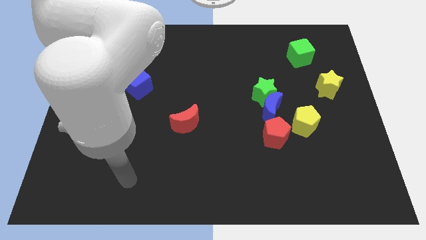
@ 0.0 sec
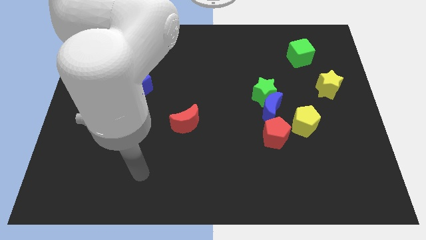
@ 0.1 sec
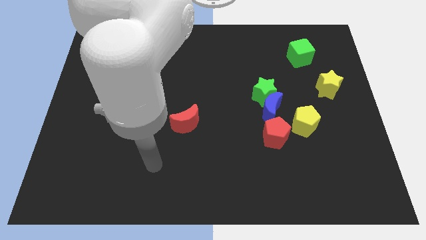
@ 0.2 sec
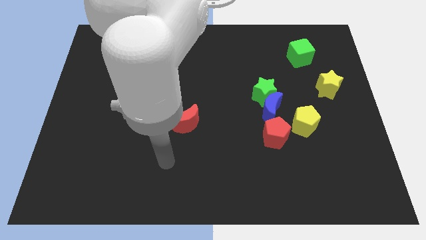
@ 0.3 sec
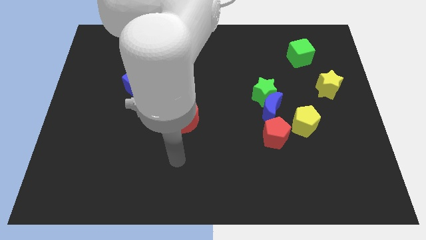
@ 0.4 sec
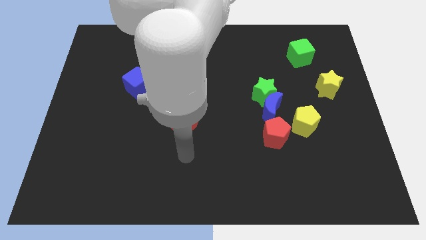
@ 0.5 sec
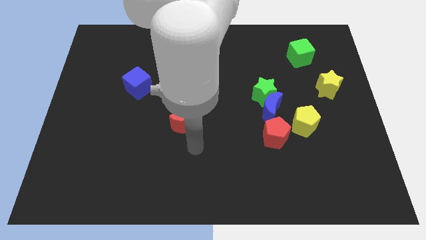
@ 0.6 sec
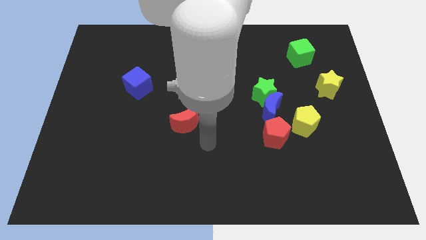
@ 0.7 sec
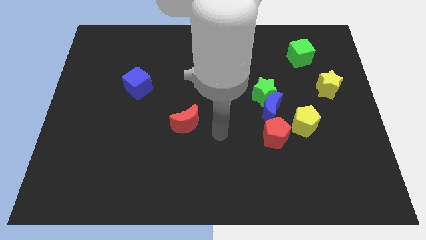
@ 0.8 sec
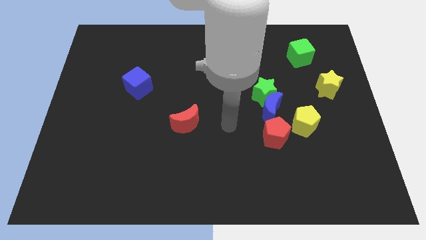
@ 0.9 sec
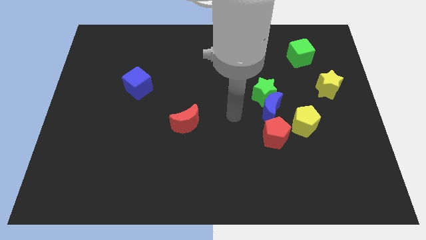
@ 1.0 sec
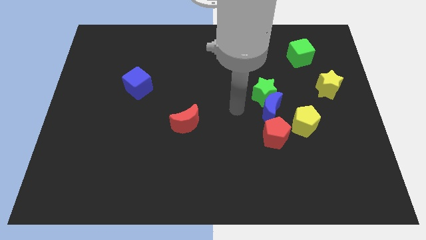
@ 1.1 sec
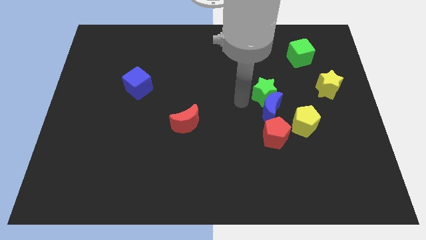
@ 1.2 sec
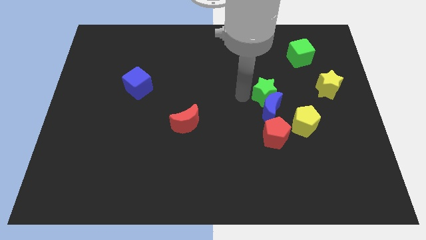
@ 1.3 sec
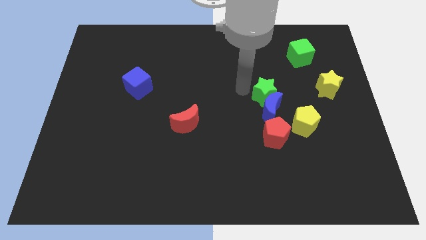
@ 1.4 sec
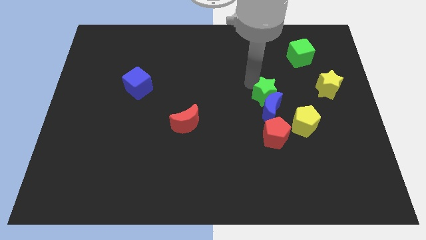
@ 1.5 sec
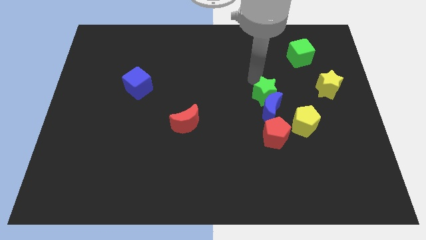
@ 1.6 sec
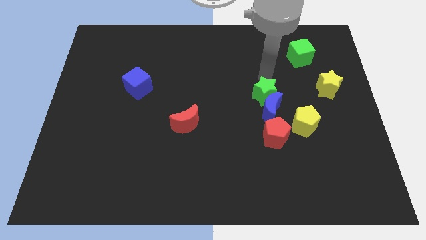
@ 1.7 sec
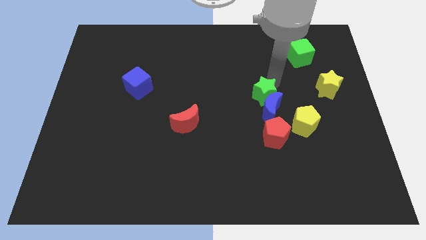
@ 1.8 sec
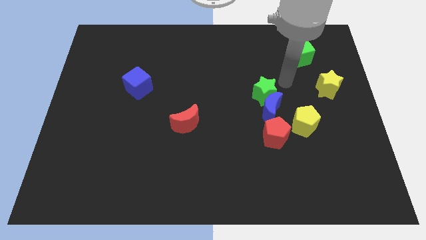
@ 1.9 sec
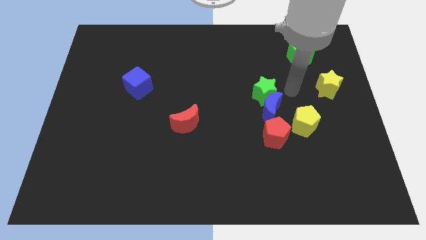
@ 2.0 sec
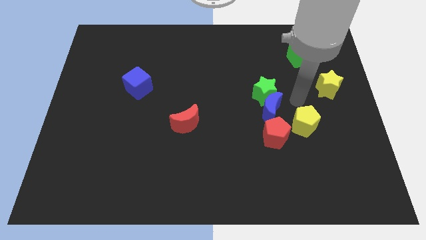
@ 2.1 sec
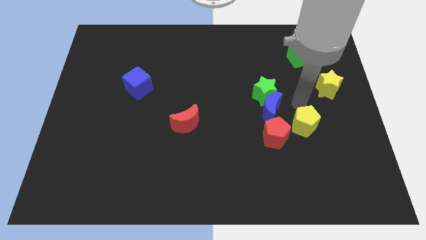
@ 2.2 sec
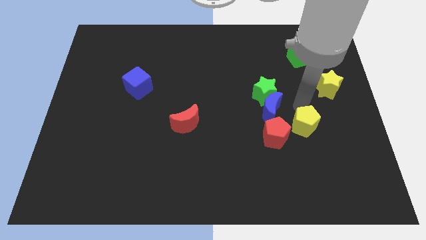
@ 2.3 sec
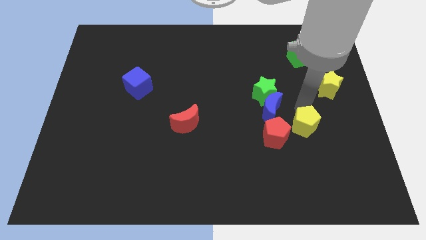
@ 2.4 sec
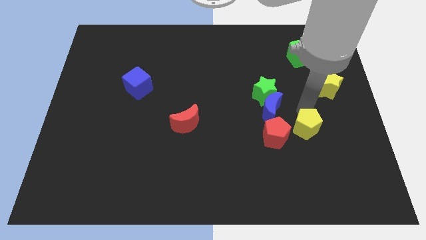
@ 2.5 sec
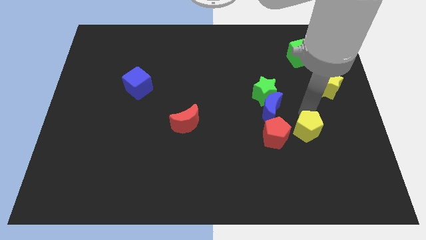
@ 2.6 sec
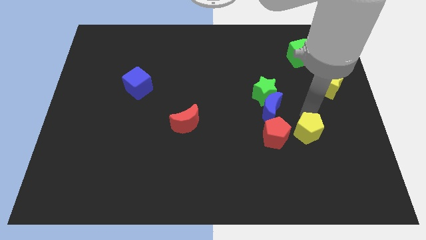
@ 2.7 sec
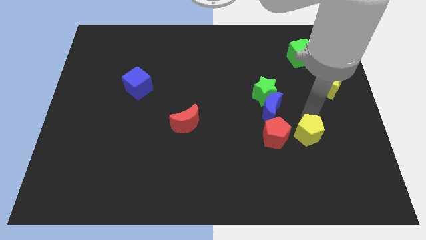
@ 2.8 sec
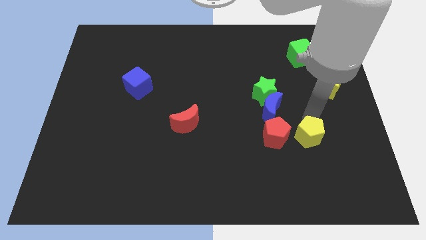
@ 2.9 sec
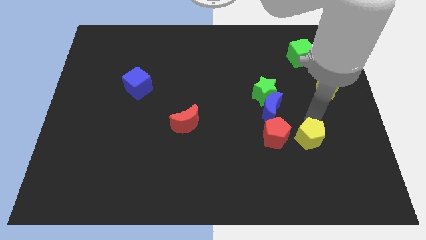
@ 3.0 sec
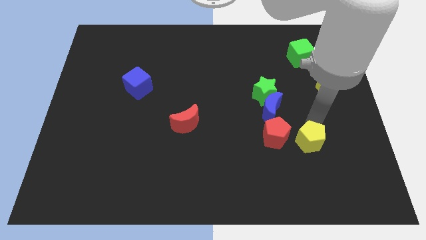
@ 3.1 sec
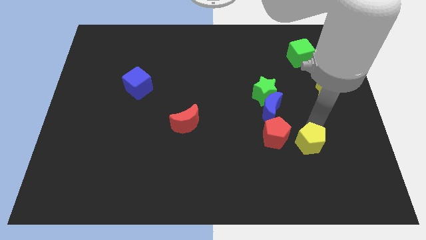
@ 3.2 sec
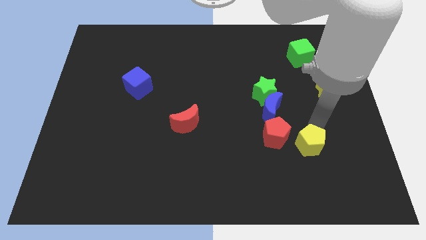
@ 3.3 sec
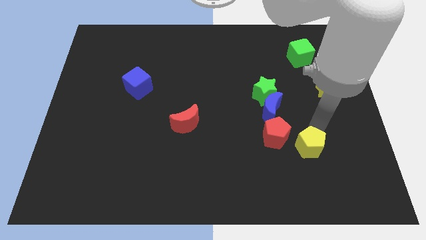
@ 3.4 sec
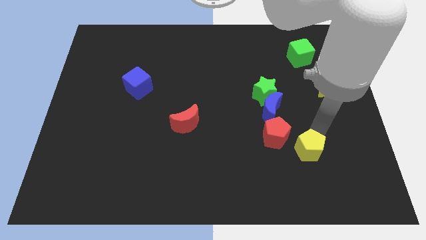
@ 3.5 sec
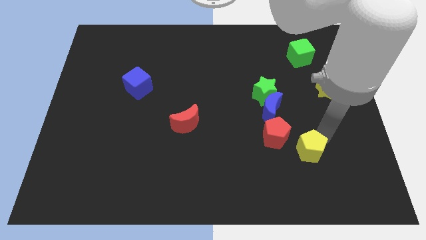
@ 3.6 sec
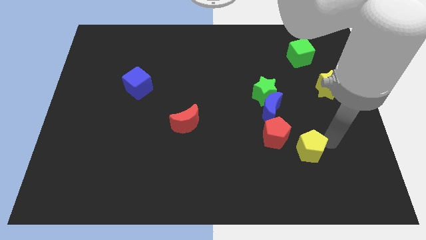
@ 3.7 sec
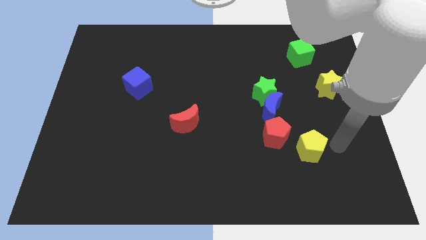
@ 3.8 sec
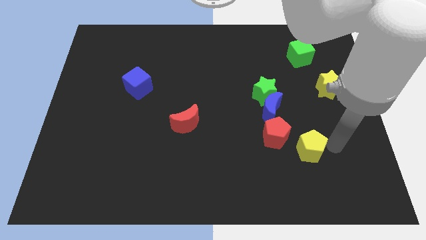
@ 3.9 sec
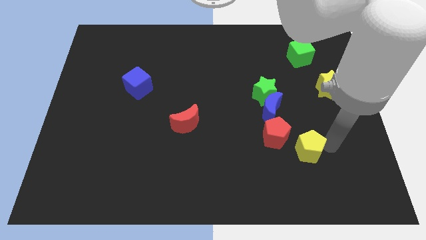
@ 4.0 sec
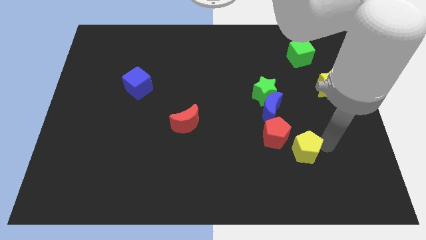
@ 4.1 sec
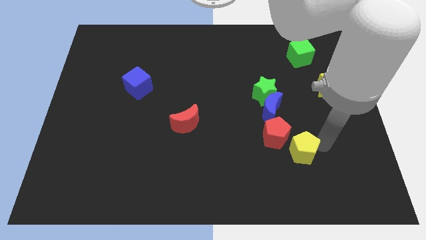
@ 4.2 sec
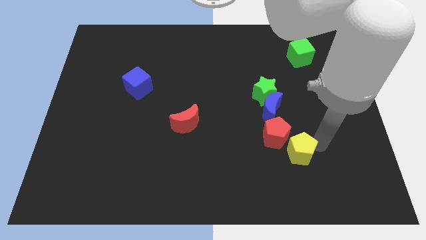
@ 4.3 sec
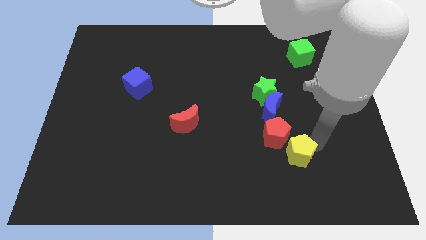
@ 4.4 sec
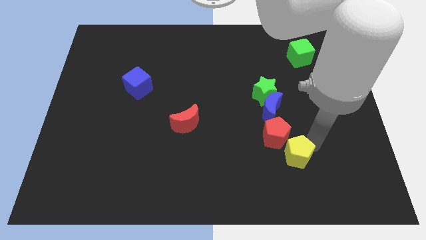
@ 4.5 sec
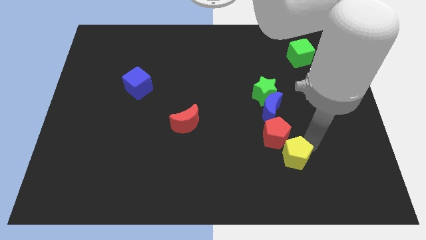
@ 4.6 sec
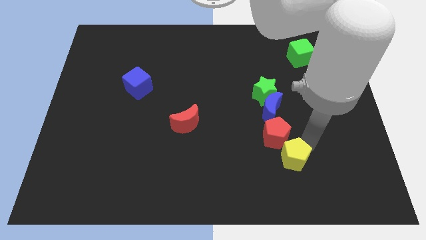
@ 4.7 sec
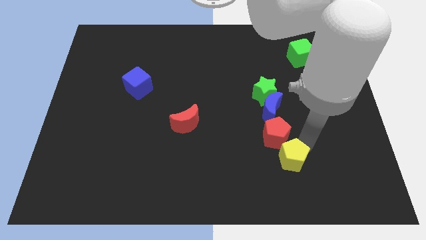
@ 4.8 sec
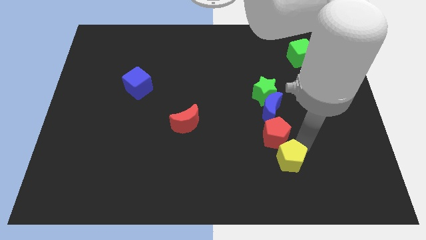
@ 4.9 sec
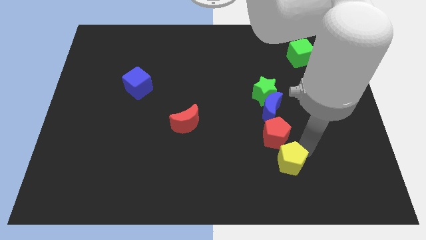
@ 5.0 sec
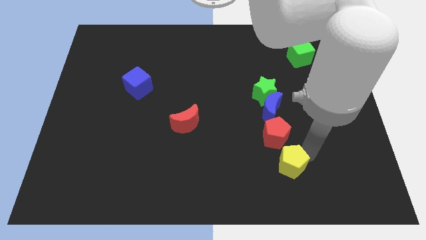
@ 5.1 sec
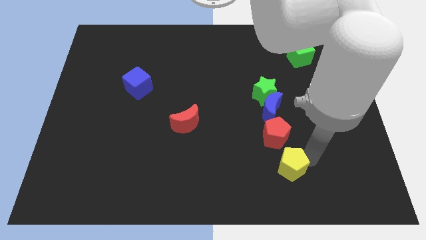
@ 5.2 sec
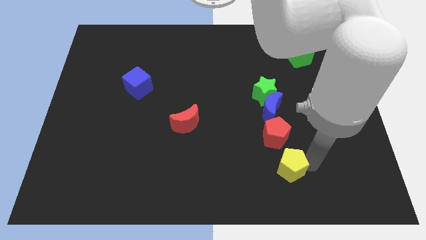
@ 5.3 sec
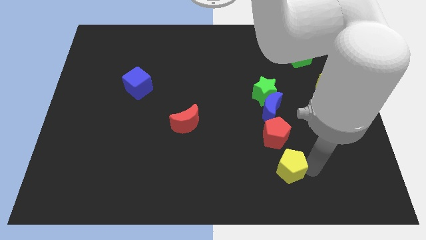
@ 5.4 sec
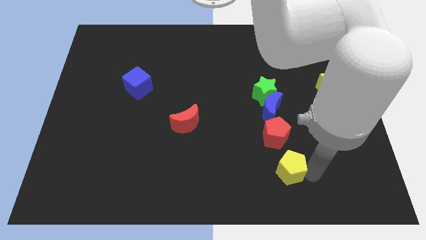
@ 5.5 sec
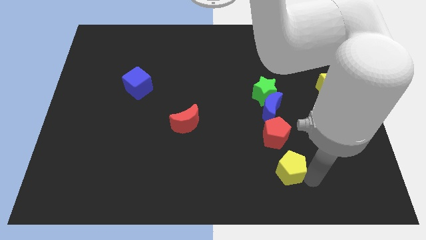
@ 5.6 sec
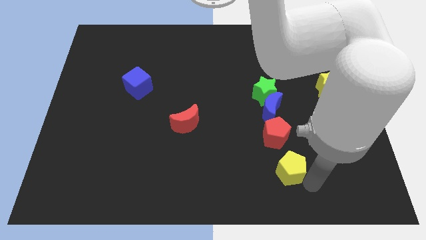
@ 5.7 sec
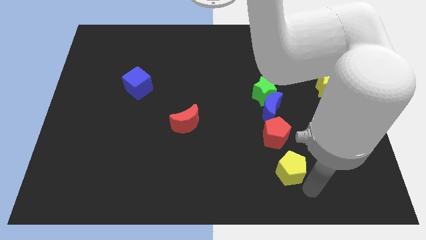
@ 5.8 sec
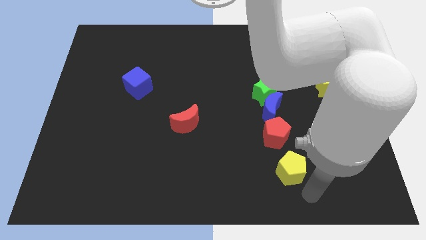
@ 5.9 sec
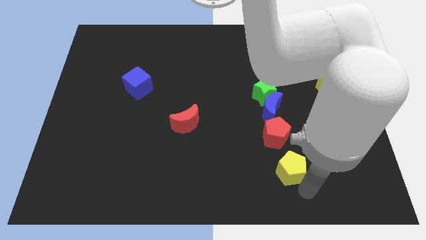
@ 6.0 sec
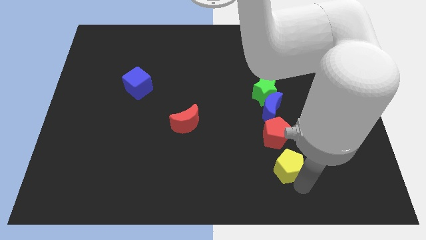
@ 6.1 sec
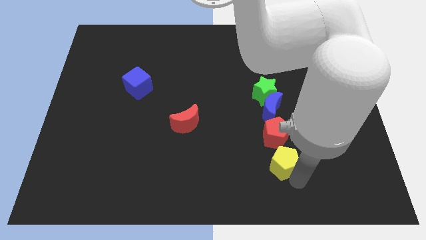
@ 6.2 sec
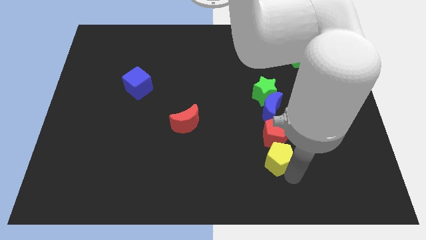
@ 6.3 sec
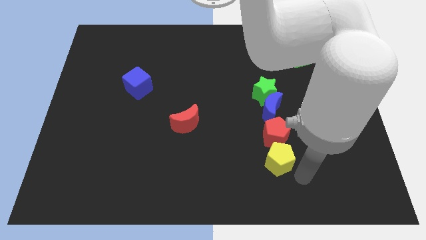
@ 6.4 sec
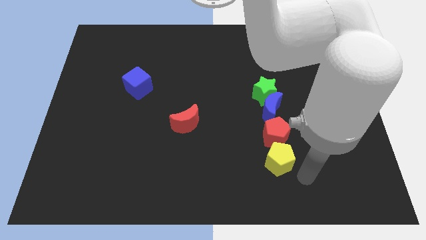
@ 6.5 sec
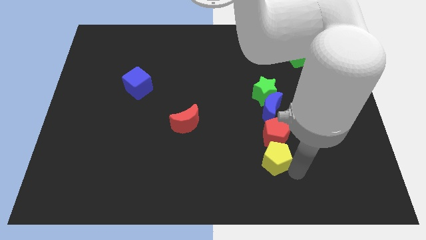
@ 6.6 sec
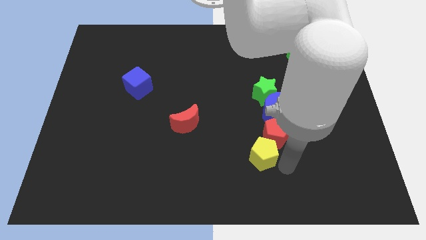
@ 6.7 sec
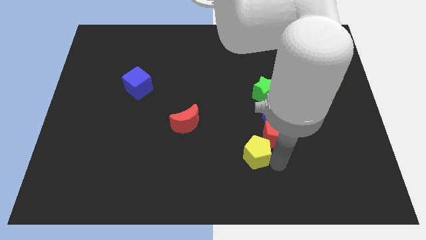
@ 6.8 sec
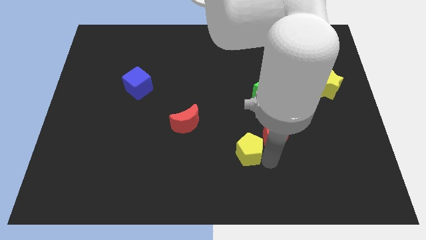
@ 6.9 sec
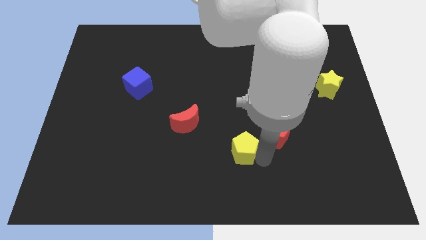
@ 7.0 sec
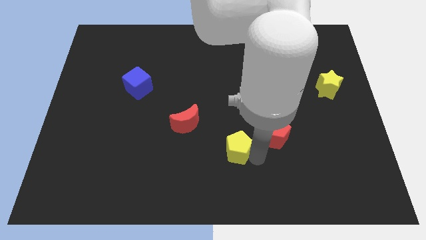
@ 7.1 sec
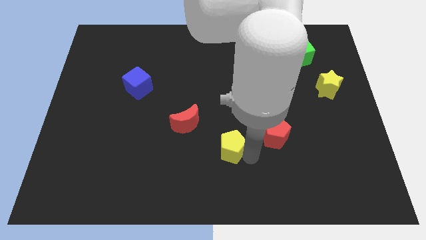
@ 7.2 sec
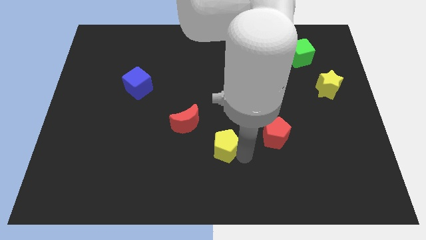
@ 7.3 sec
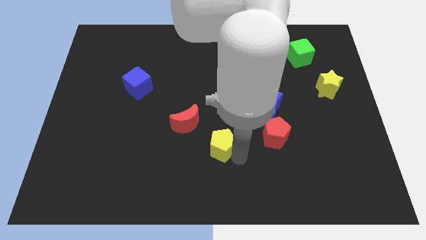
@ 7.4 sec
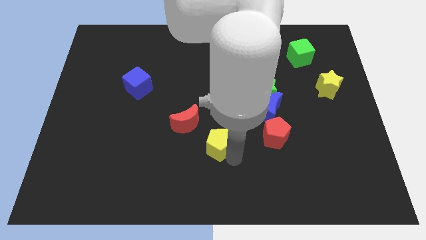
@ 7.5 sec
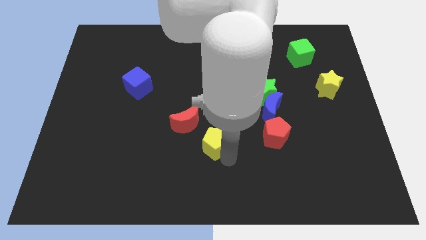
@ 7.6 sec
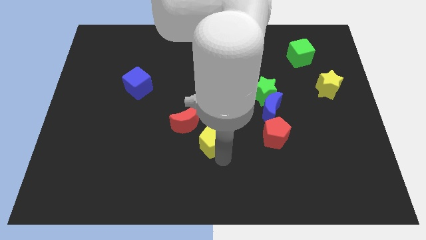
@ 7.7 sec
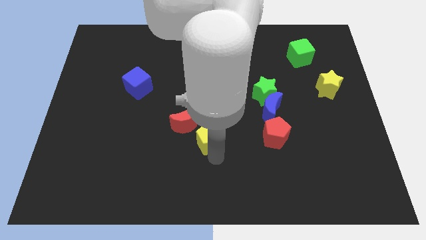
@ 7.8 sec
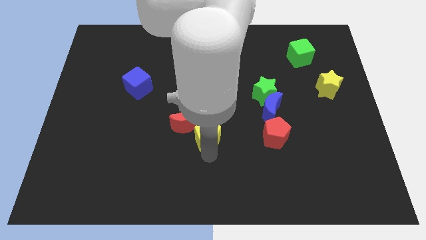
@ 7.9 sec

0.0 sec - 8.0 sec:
move the yellow pentagon next to the red moon
